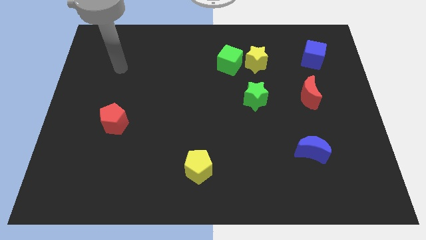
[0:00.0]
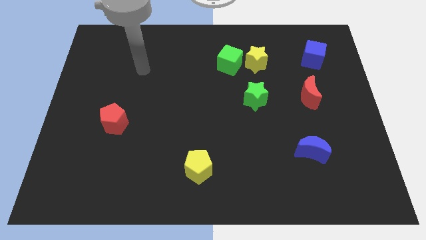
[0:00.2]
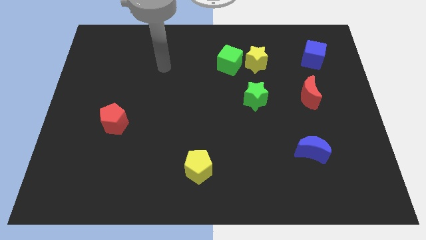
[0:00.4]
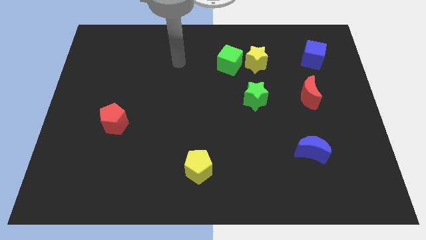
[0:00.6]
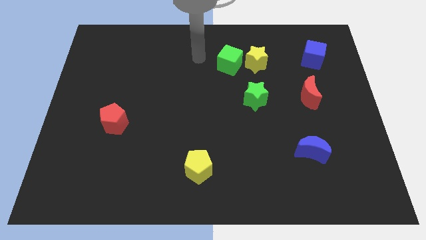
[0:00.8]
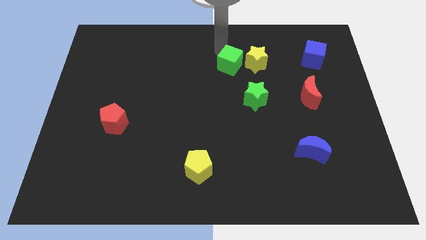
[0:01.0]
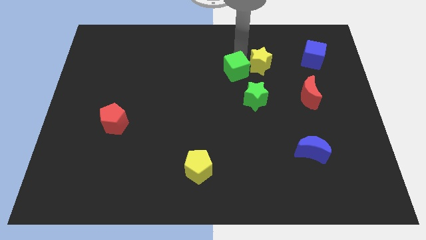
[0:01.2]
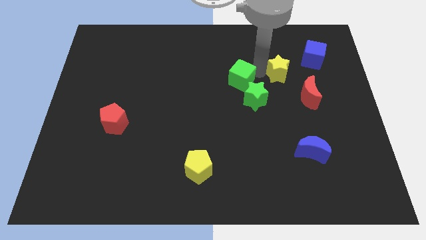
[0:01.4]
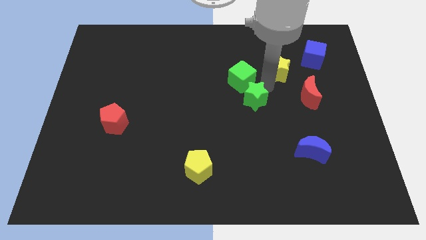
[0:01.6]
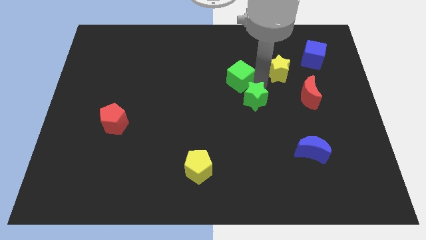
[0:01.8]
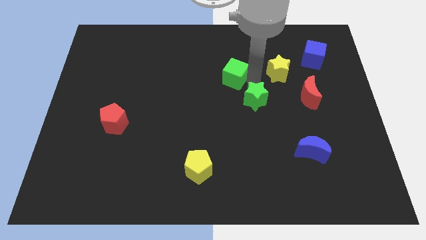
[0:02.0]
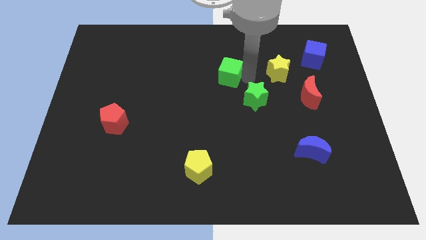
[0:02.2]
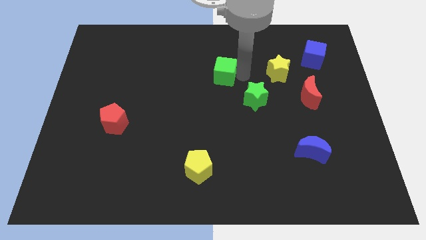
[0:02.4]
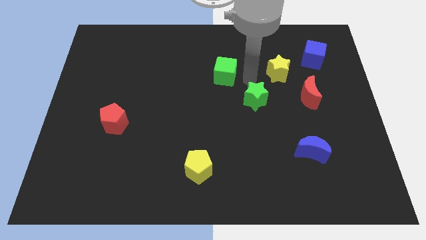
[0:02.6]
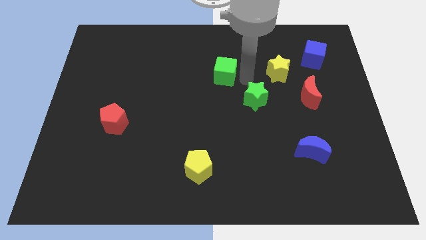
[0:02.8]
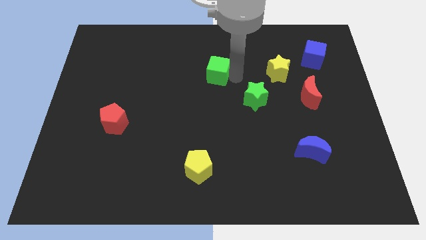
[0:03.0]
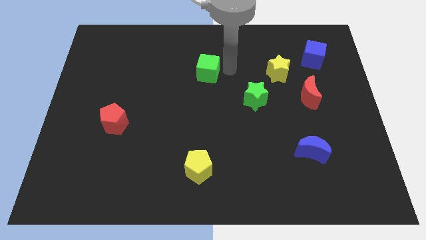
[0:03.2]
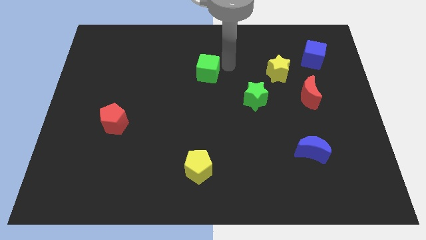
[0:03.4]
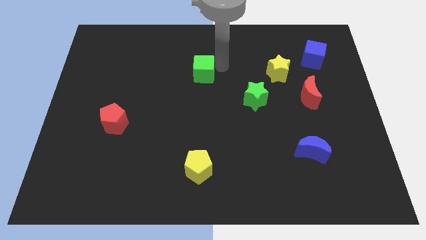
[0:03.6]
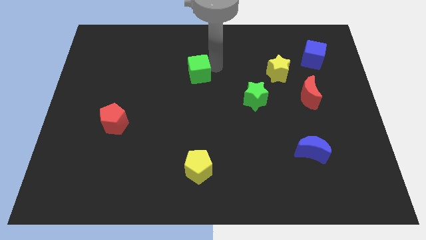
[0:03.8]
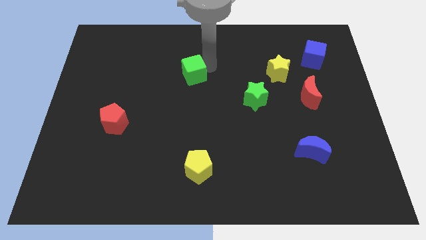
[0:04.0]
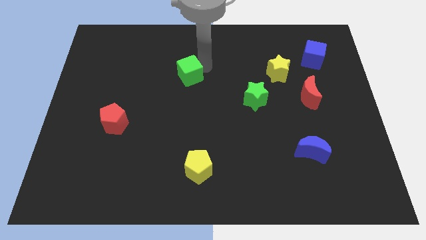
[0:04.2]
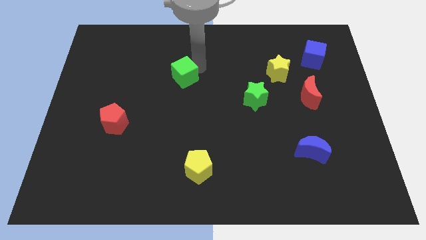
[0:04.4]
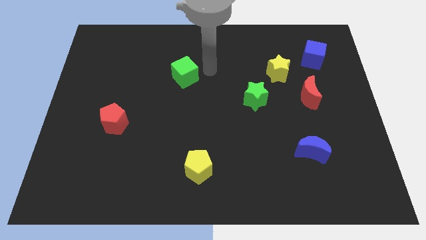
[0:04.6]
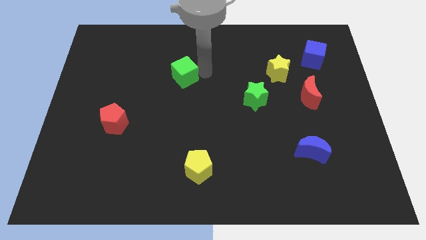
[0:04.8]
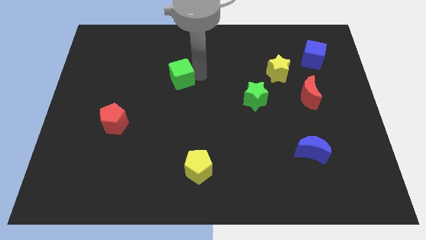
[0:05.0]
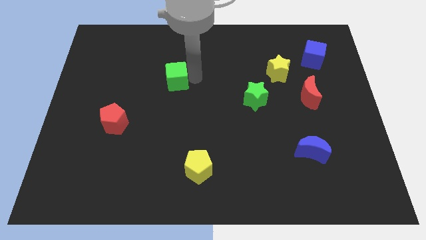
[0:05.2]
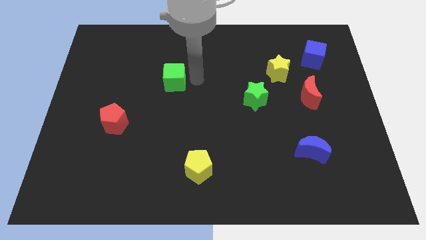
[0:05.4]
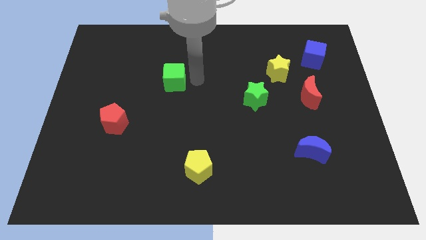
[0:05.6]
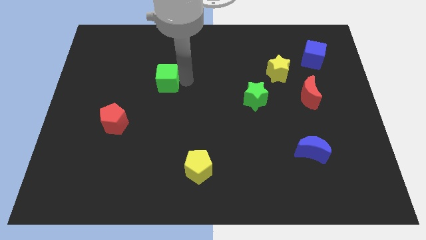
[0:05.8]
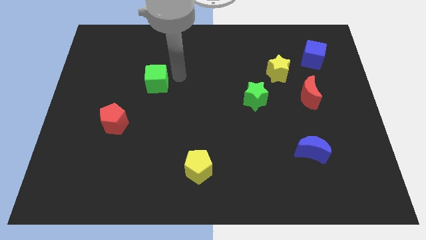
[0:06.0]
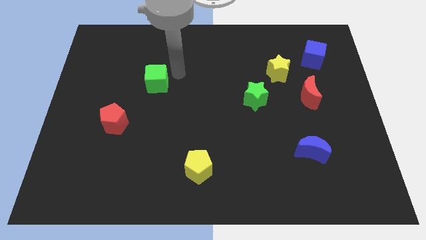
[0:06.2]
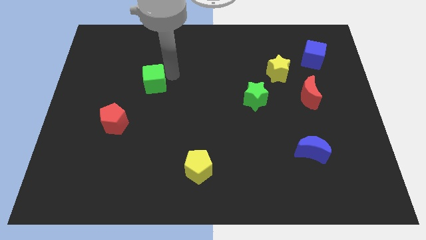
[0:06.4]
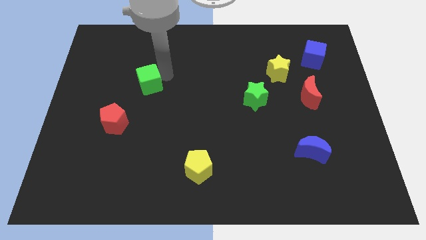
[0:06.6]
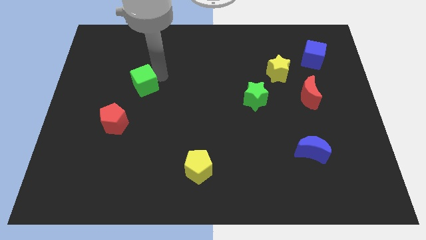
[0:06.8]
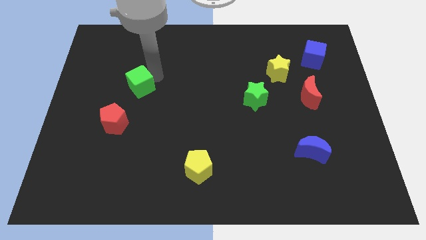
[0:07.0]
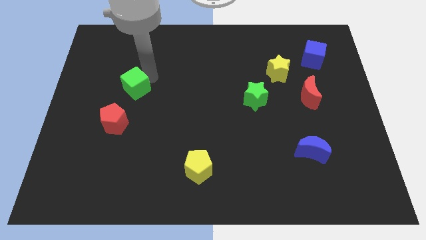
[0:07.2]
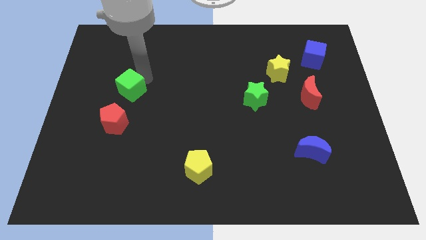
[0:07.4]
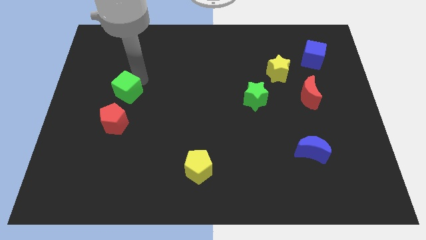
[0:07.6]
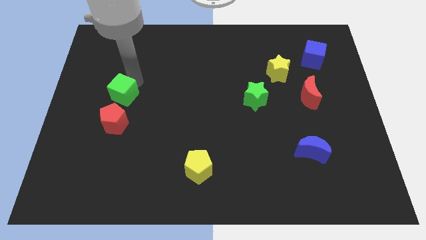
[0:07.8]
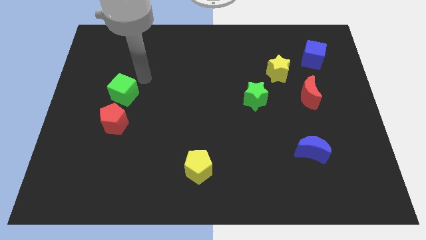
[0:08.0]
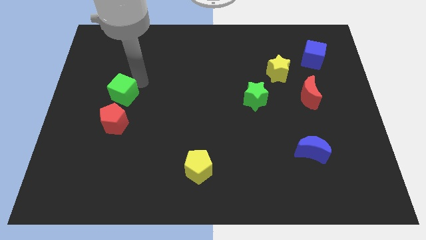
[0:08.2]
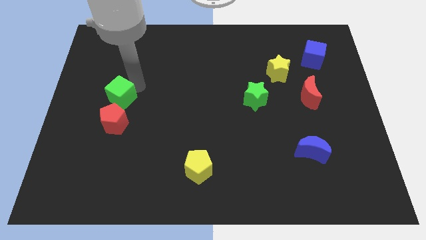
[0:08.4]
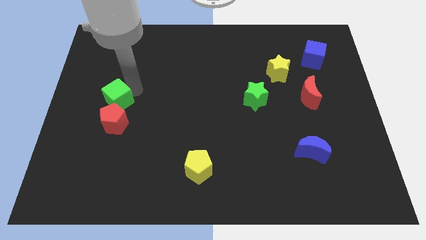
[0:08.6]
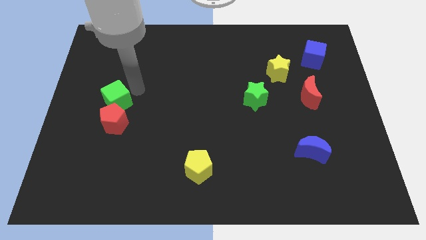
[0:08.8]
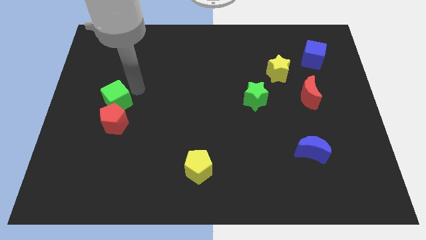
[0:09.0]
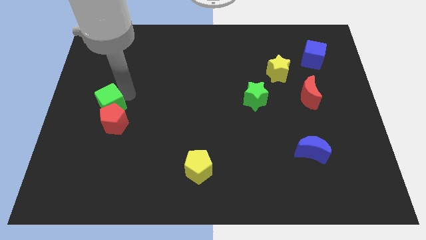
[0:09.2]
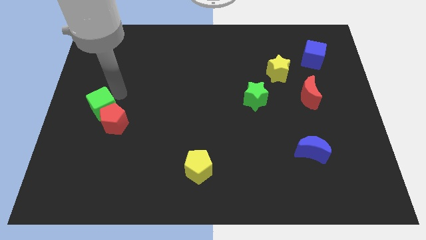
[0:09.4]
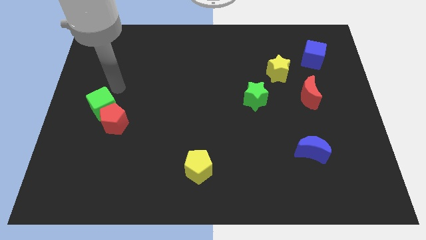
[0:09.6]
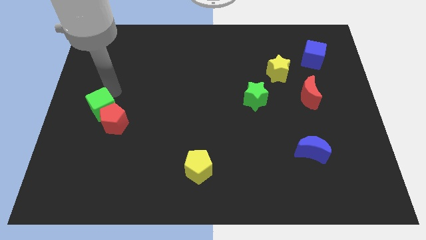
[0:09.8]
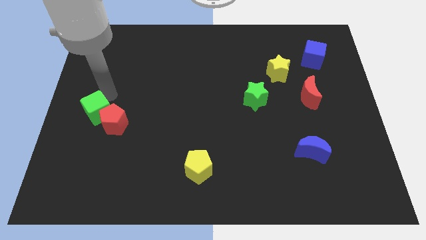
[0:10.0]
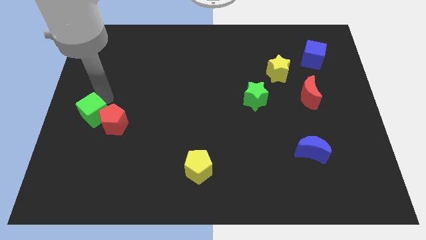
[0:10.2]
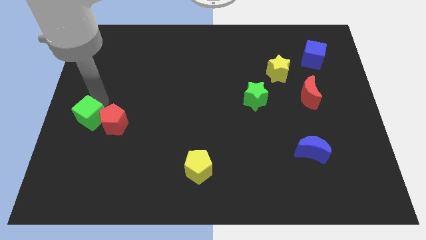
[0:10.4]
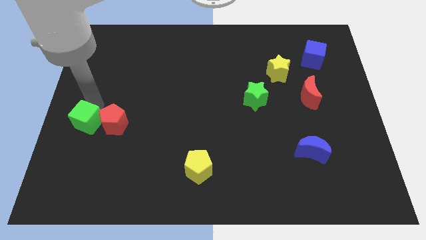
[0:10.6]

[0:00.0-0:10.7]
put the green cube to the bottom left side of the red pentagon

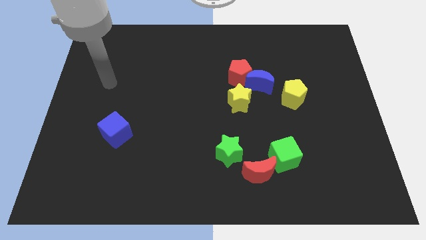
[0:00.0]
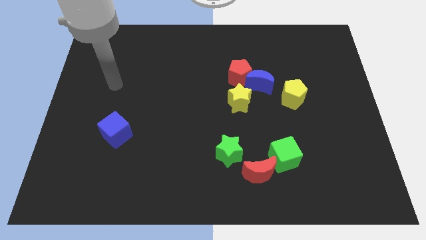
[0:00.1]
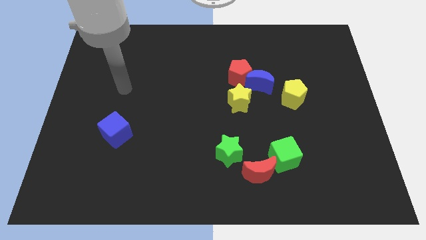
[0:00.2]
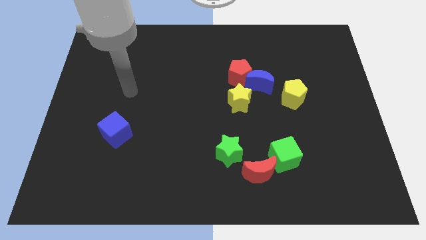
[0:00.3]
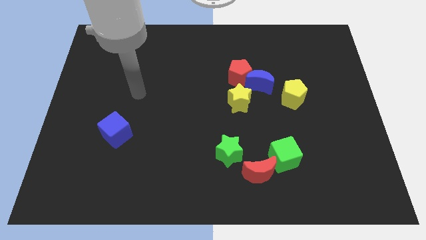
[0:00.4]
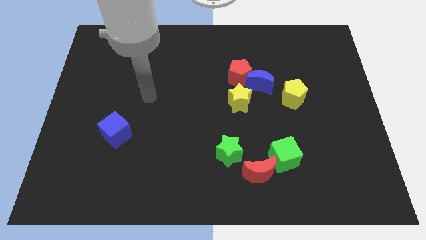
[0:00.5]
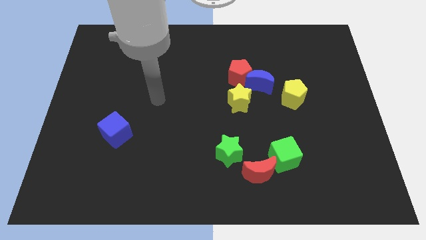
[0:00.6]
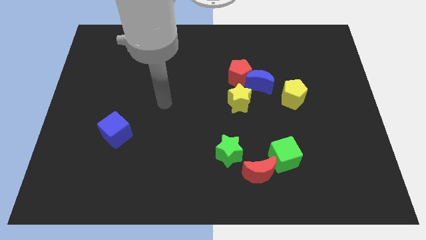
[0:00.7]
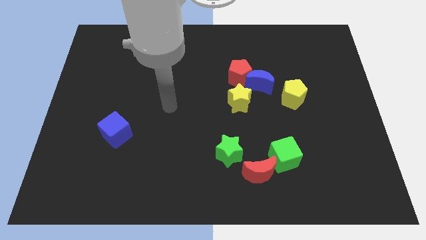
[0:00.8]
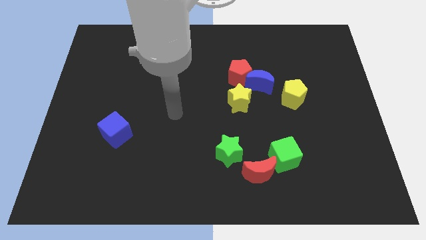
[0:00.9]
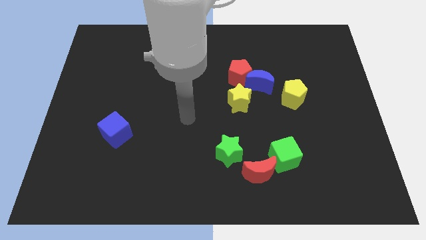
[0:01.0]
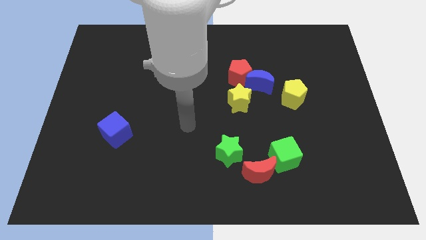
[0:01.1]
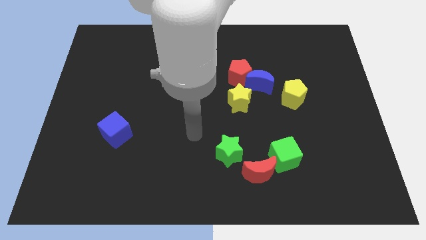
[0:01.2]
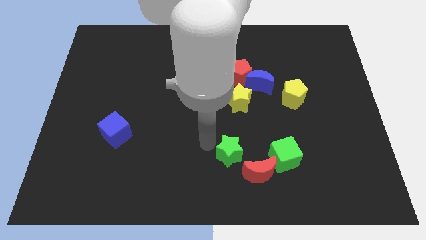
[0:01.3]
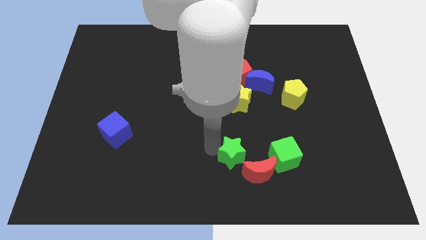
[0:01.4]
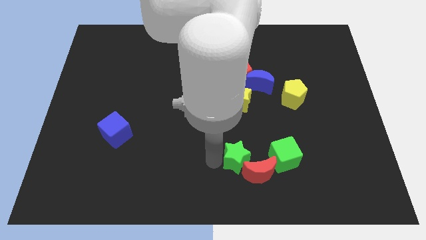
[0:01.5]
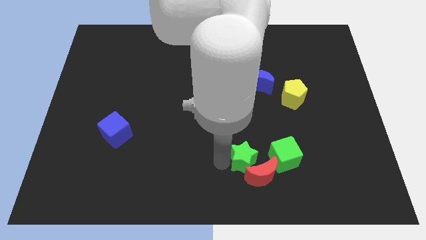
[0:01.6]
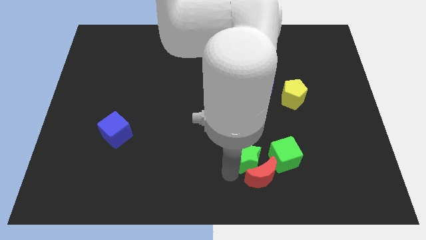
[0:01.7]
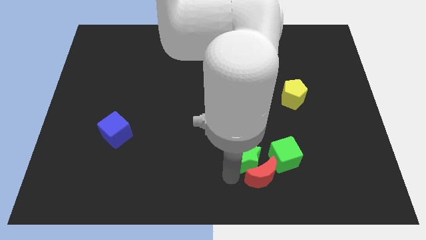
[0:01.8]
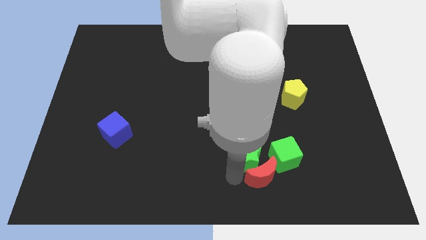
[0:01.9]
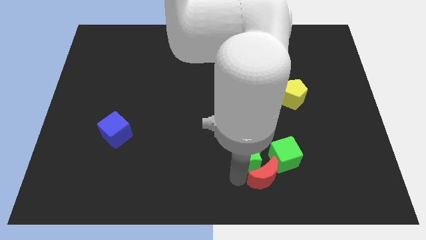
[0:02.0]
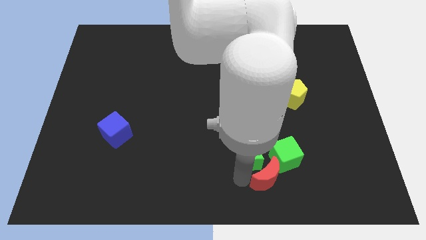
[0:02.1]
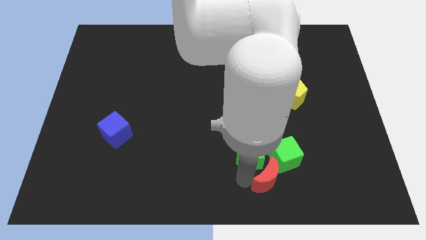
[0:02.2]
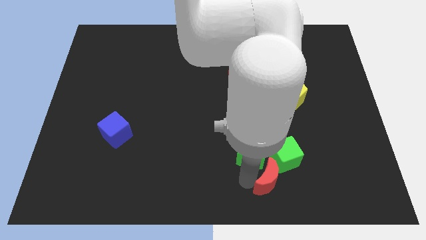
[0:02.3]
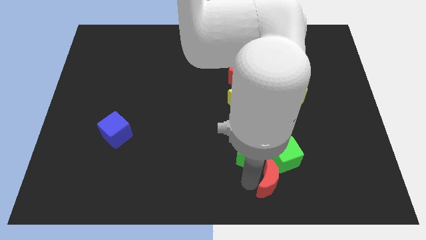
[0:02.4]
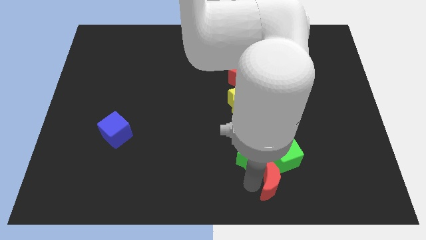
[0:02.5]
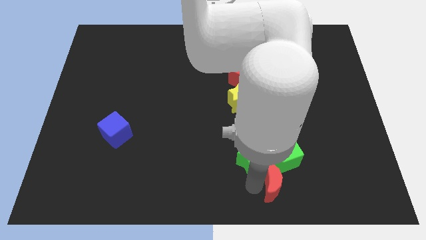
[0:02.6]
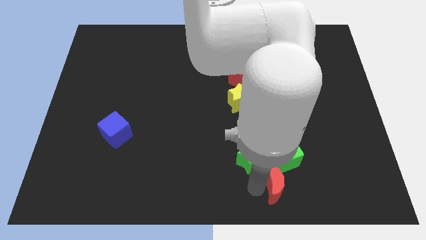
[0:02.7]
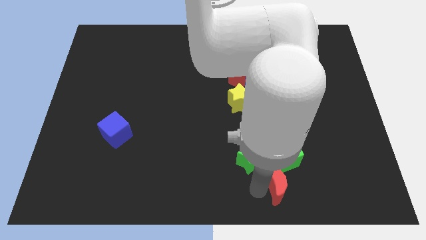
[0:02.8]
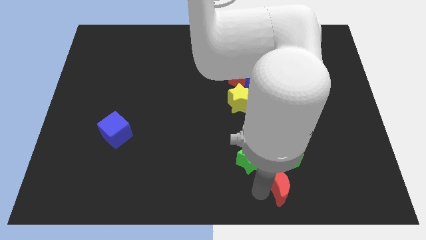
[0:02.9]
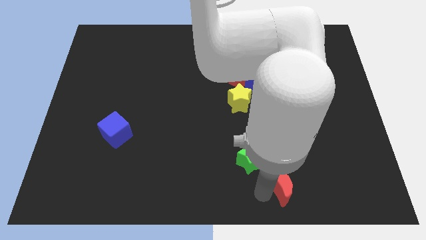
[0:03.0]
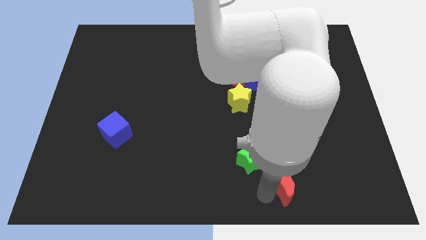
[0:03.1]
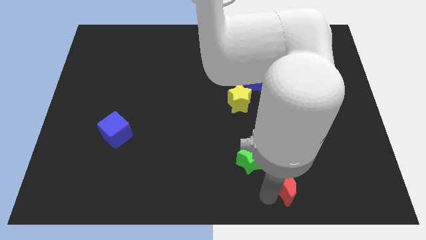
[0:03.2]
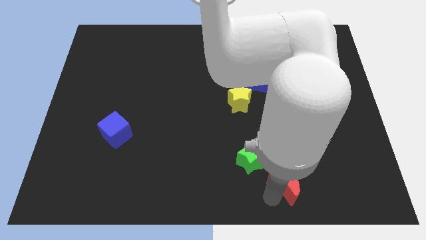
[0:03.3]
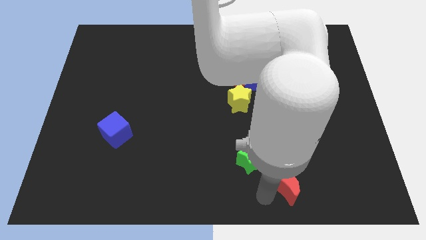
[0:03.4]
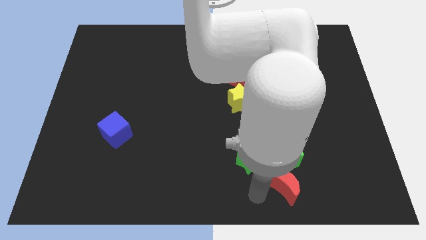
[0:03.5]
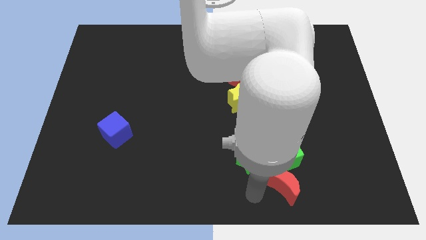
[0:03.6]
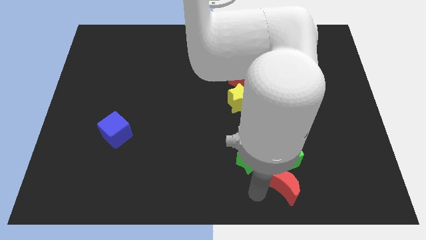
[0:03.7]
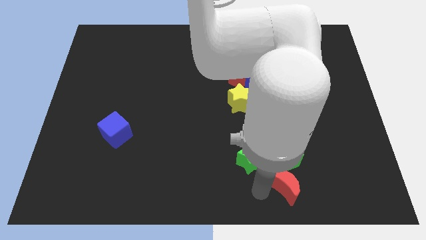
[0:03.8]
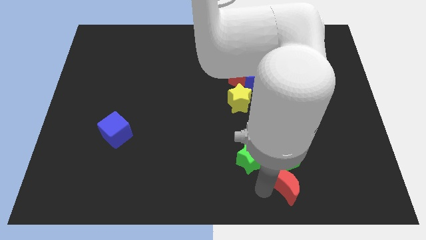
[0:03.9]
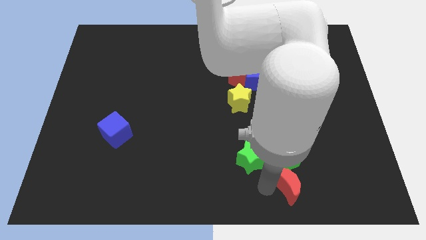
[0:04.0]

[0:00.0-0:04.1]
put the red moon diagonally down and to the right of the green cube
